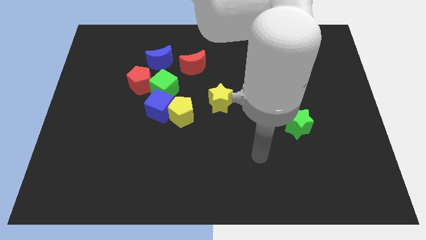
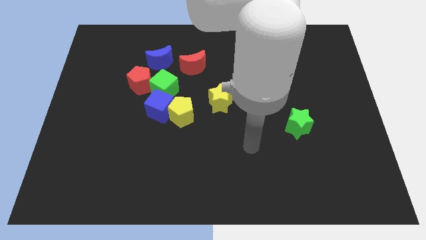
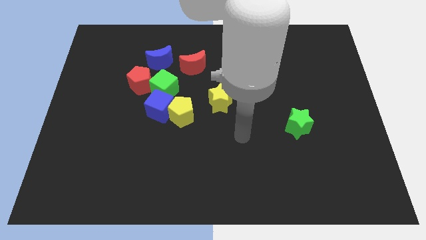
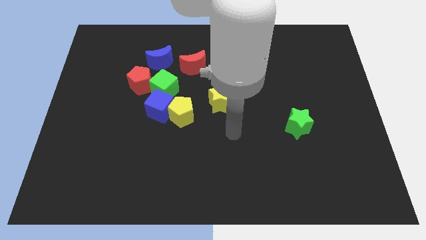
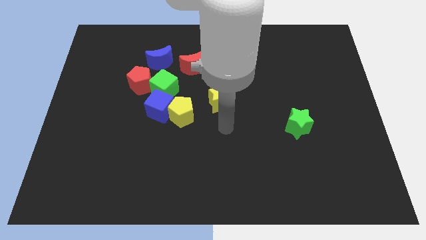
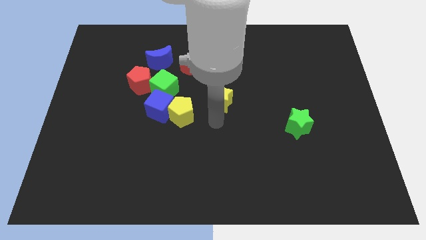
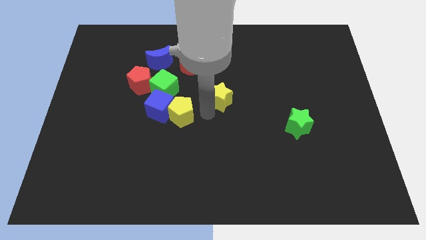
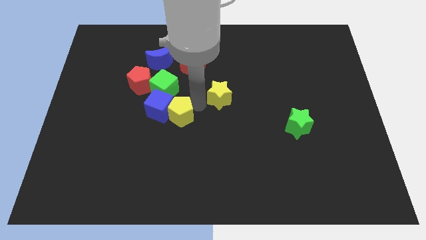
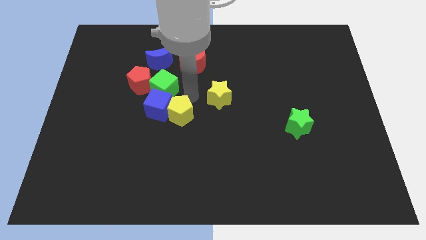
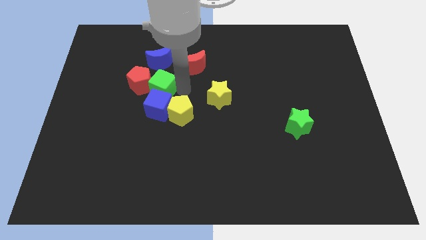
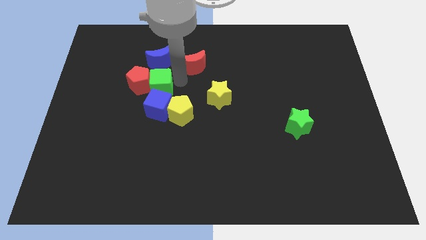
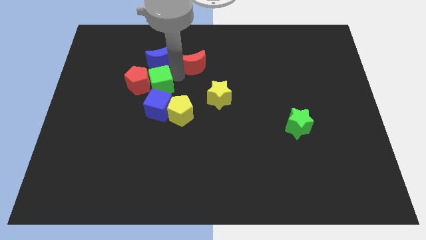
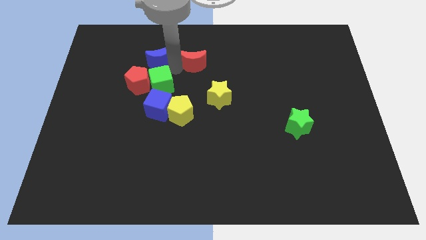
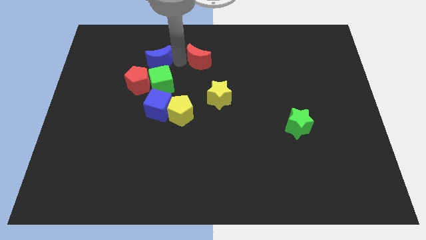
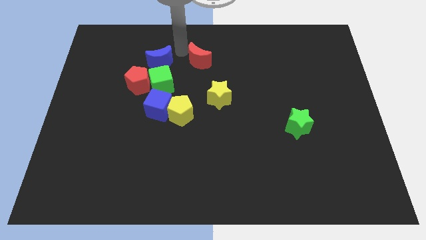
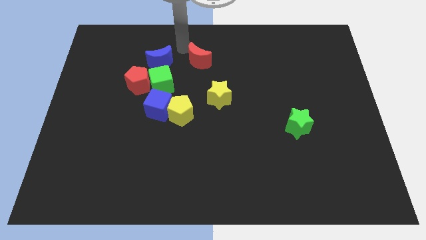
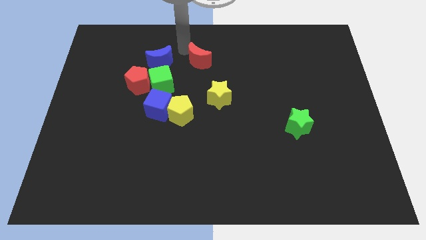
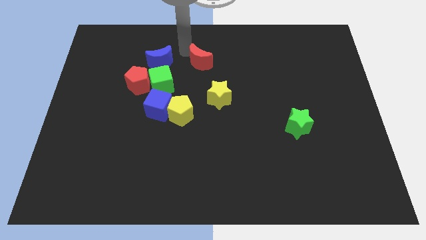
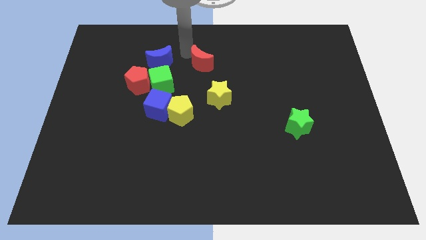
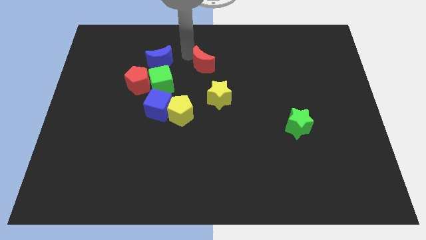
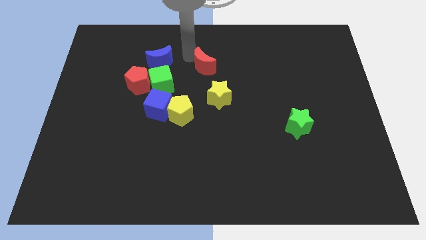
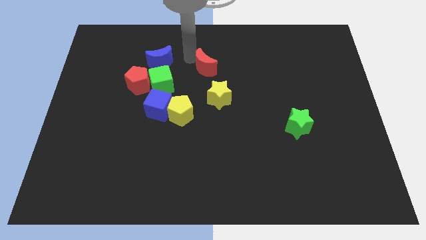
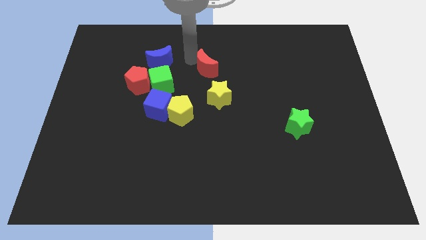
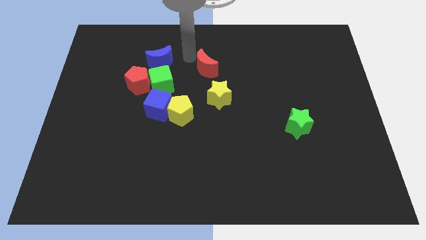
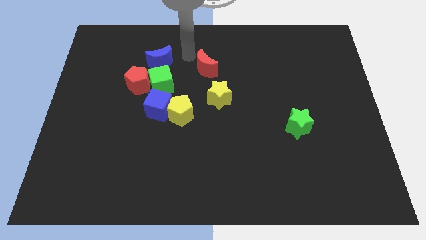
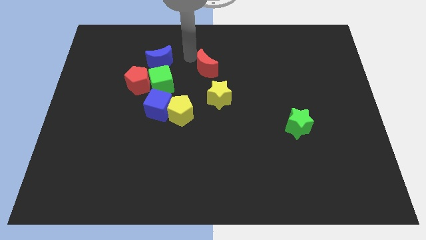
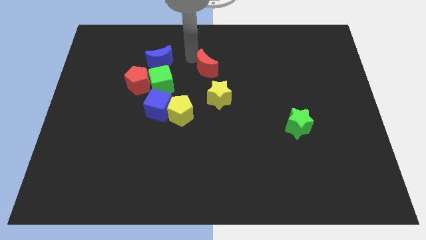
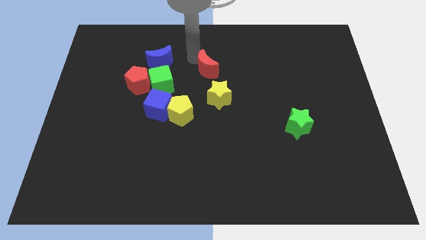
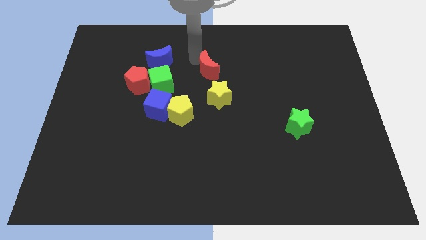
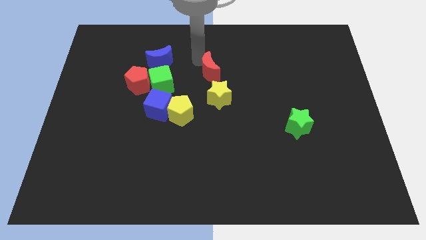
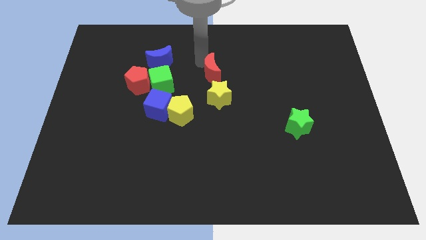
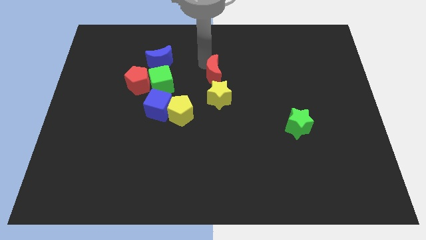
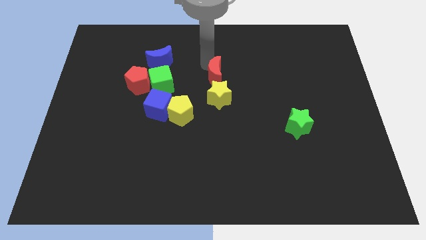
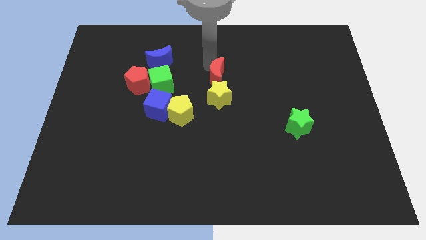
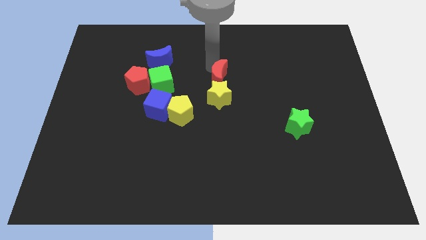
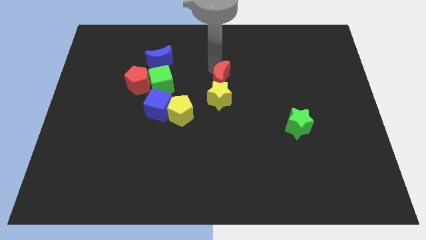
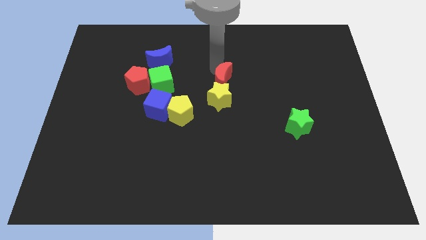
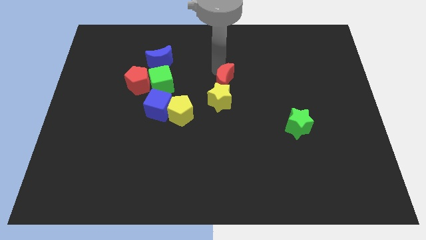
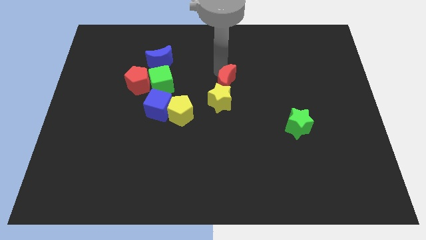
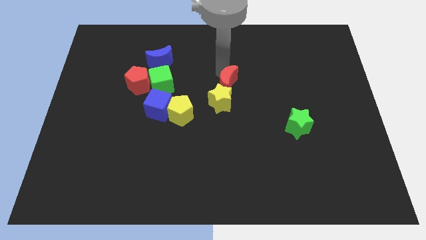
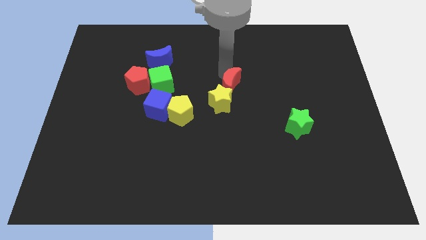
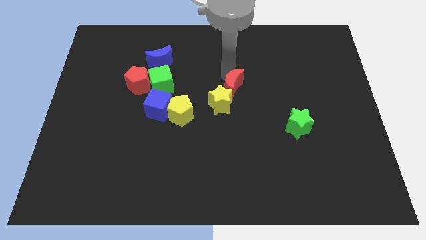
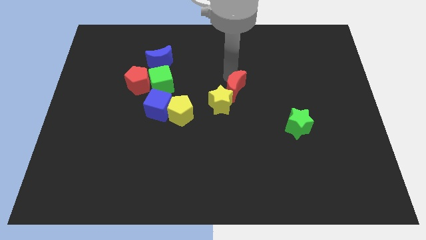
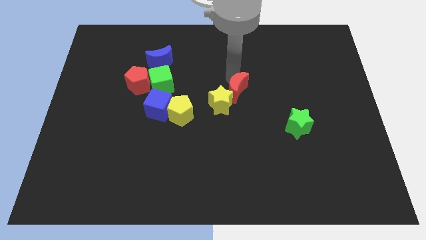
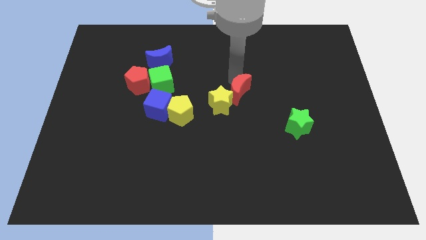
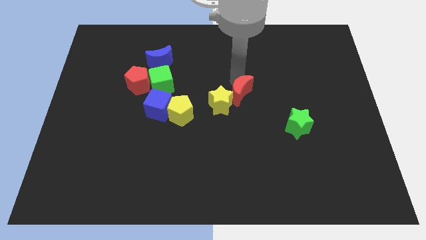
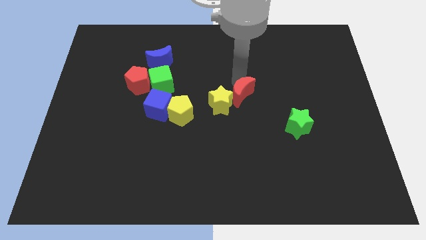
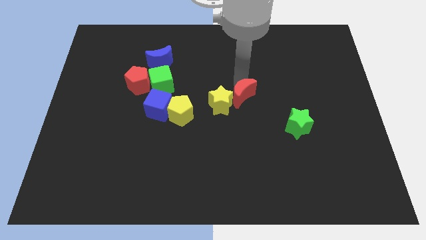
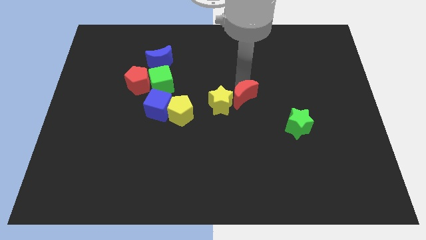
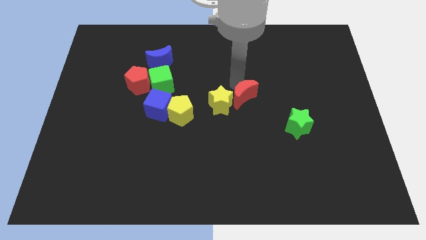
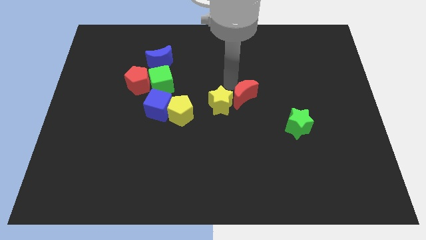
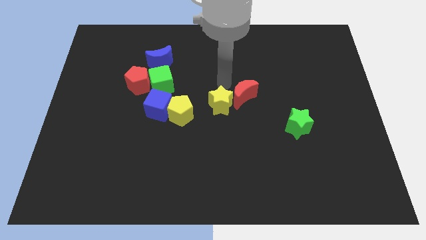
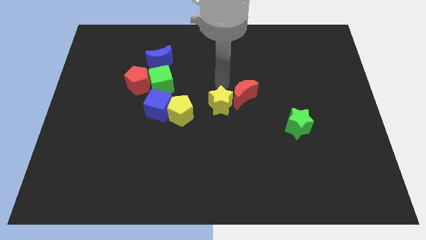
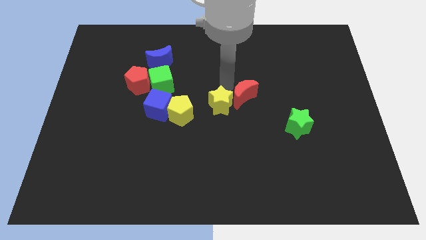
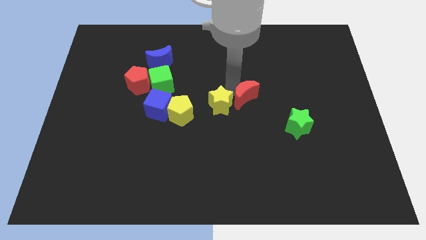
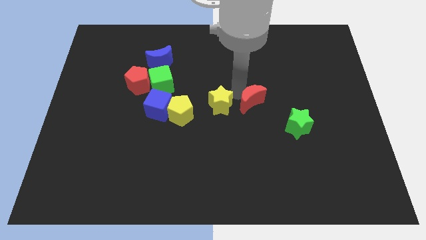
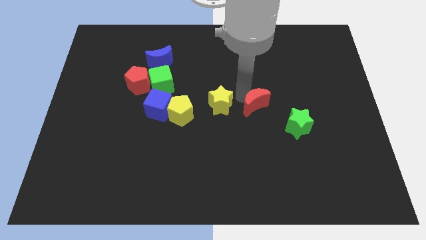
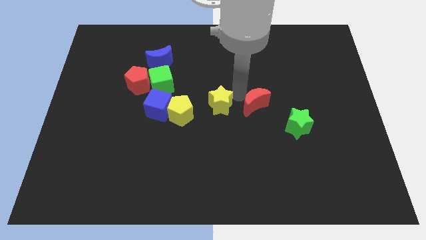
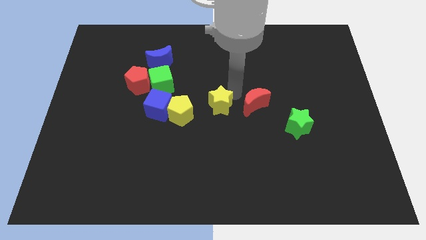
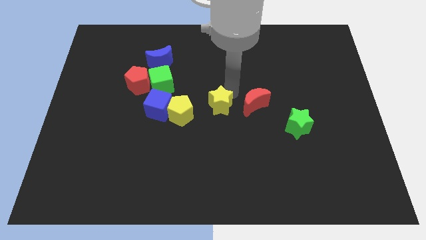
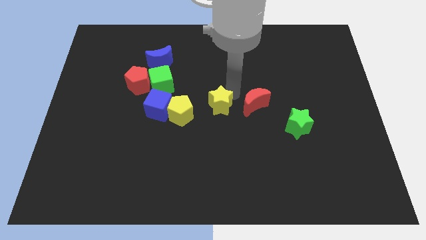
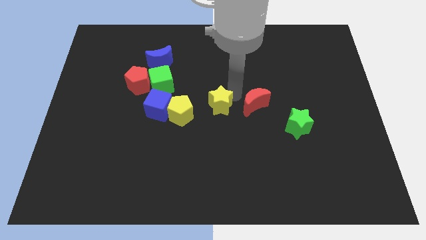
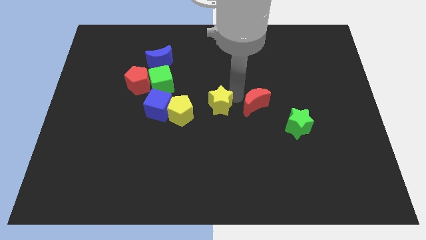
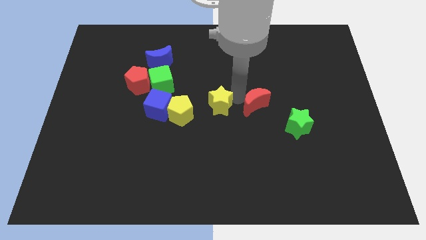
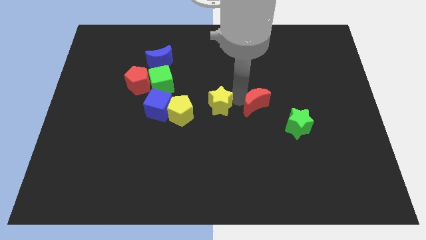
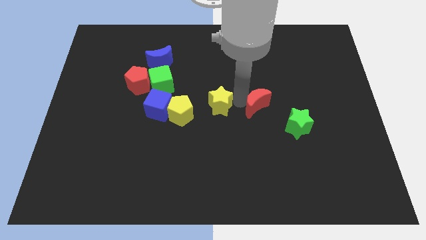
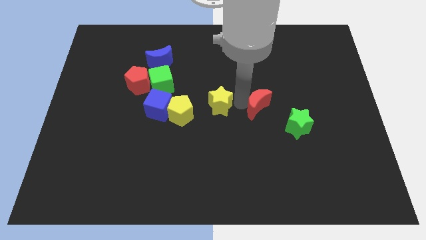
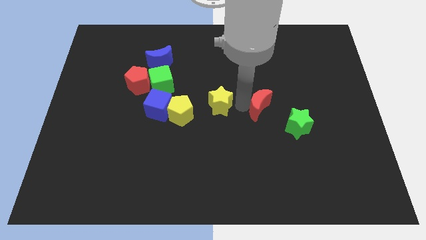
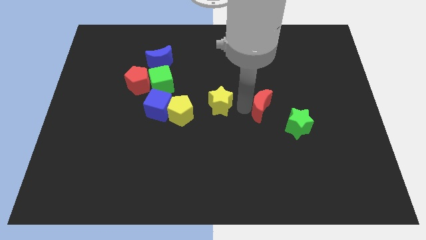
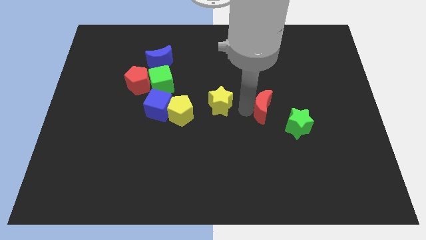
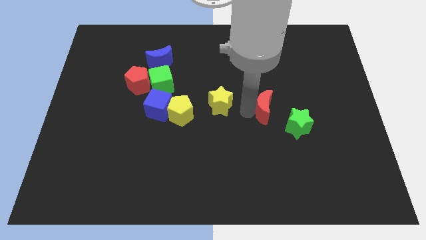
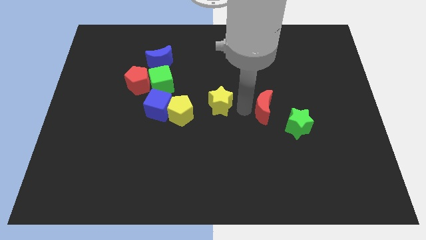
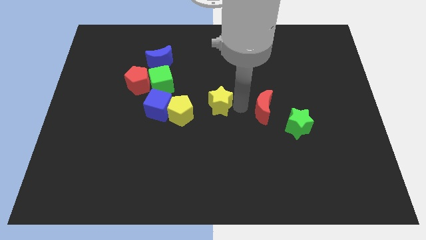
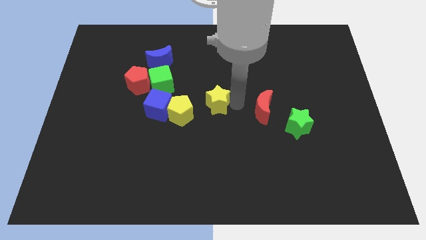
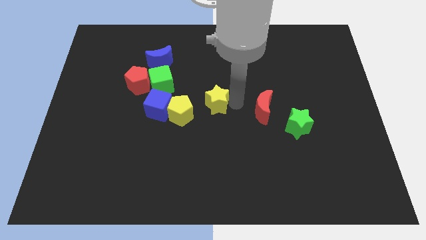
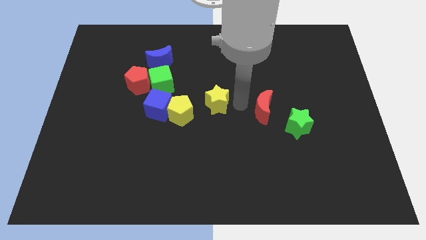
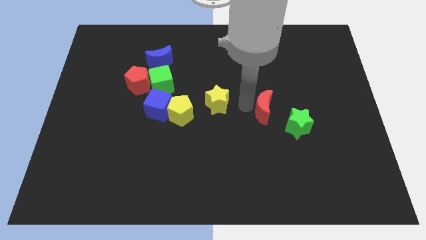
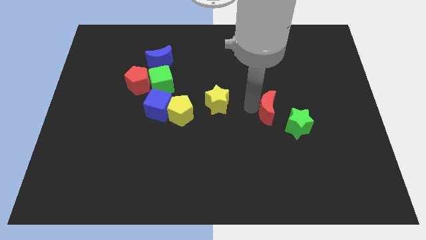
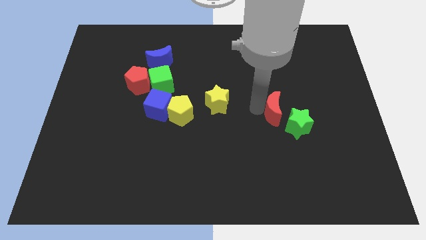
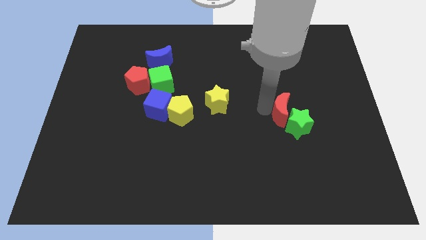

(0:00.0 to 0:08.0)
slide the red moon close to the green star
